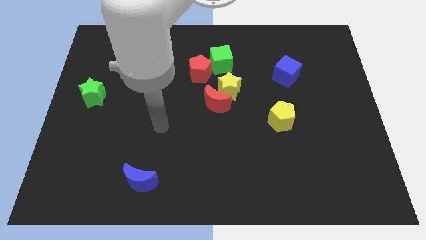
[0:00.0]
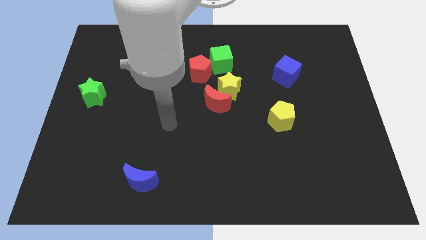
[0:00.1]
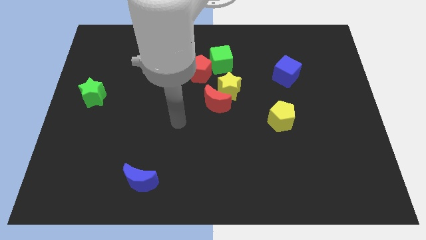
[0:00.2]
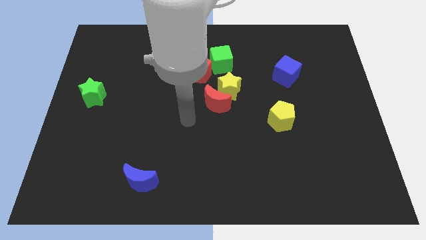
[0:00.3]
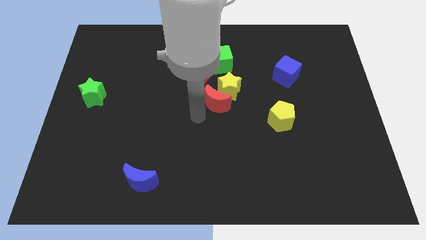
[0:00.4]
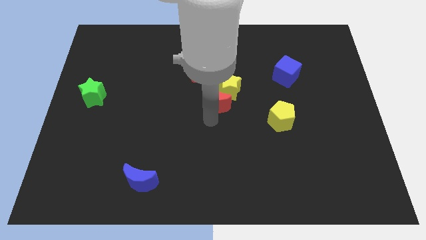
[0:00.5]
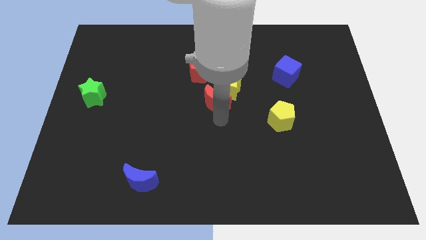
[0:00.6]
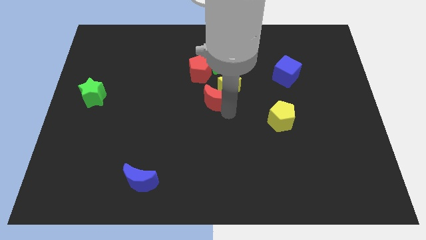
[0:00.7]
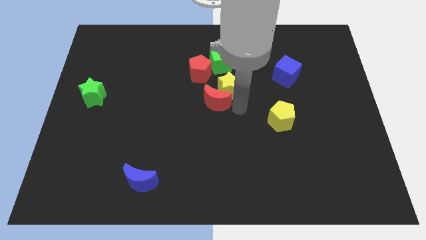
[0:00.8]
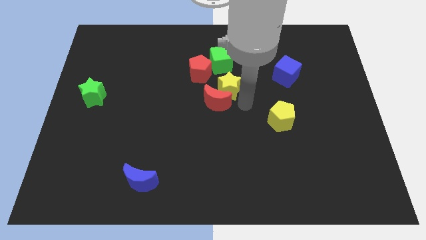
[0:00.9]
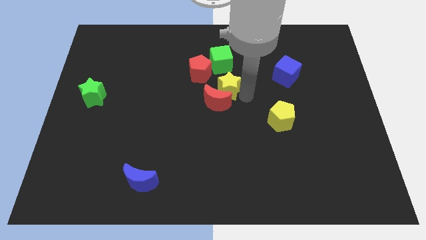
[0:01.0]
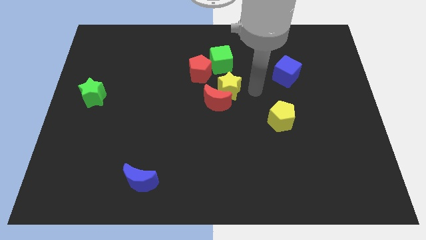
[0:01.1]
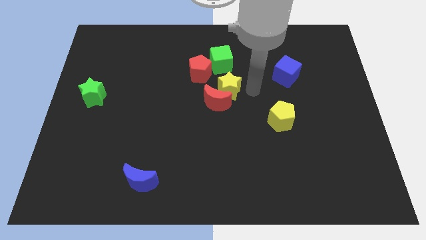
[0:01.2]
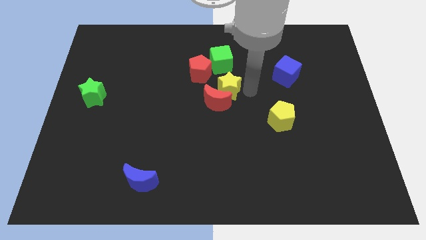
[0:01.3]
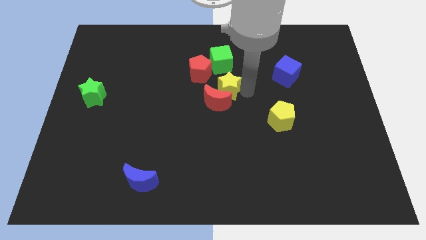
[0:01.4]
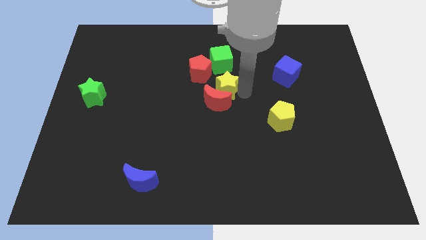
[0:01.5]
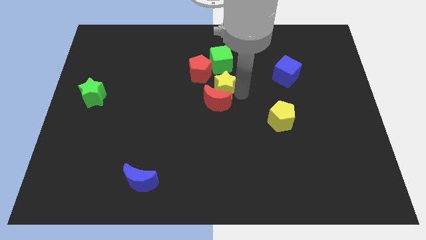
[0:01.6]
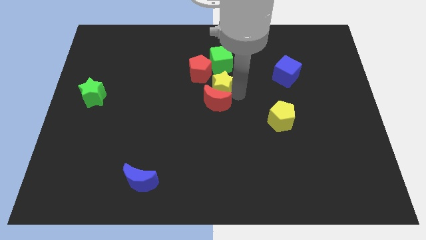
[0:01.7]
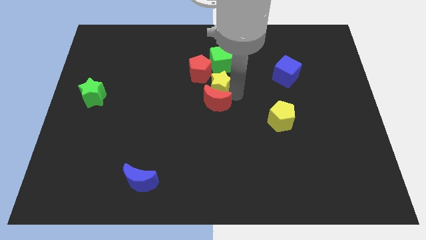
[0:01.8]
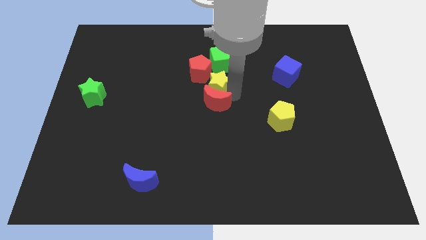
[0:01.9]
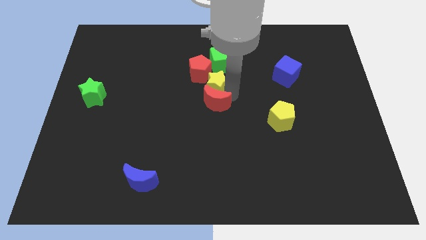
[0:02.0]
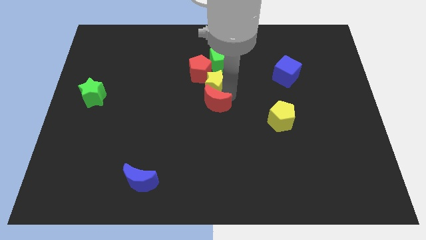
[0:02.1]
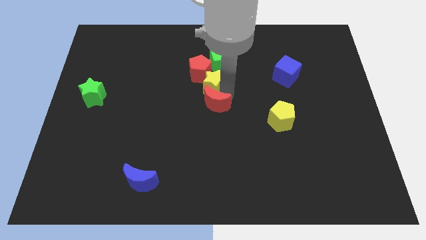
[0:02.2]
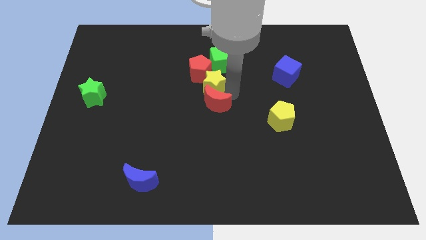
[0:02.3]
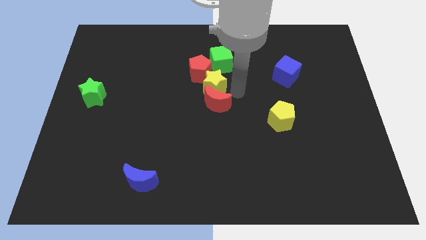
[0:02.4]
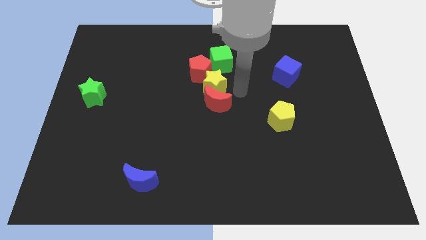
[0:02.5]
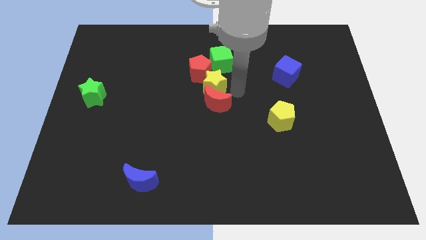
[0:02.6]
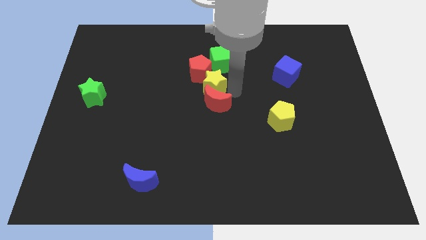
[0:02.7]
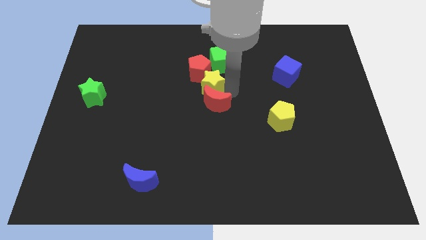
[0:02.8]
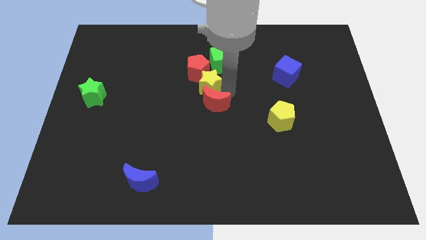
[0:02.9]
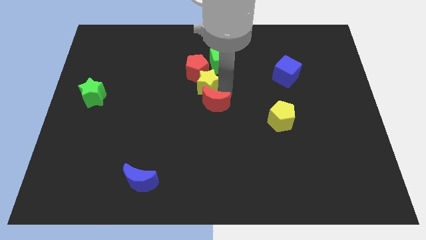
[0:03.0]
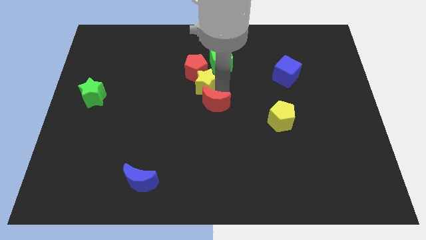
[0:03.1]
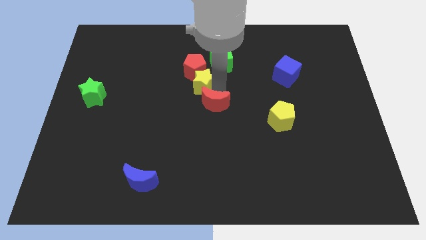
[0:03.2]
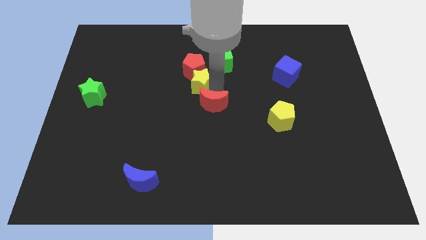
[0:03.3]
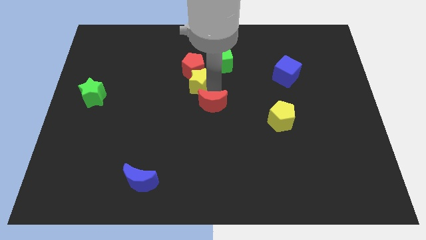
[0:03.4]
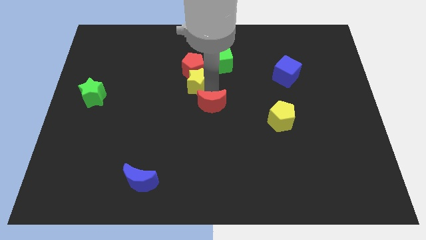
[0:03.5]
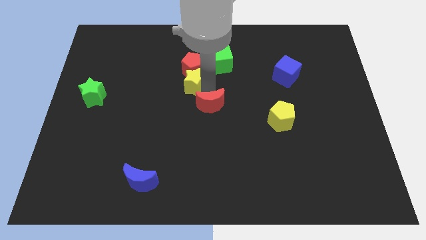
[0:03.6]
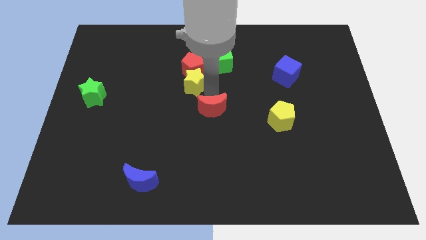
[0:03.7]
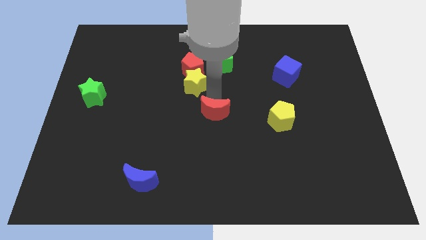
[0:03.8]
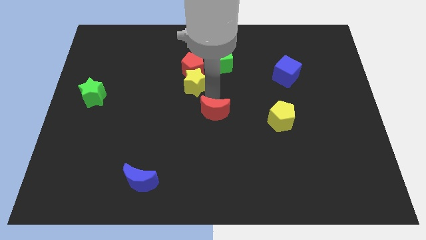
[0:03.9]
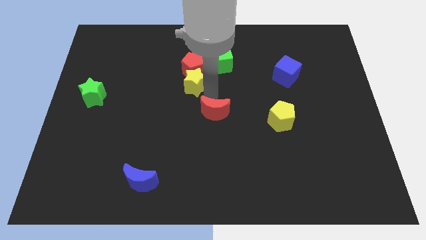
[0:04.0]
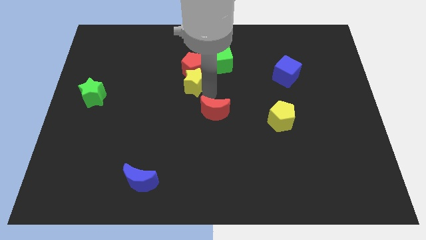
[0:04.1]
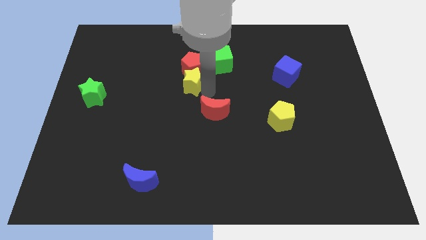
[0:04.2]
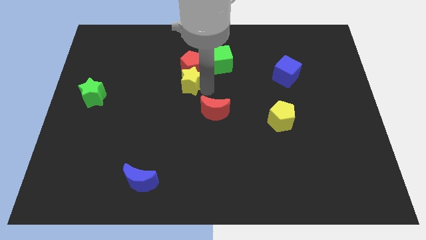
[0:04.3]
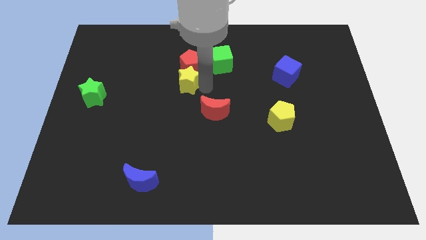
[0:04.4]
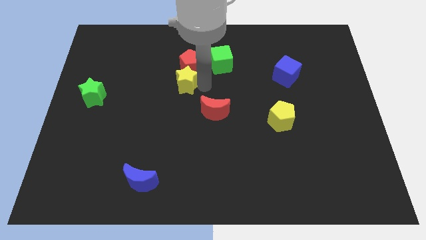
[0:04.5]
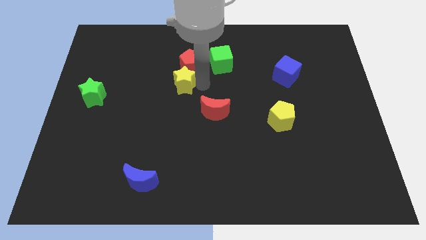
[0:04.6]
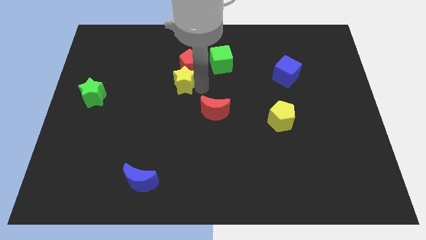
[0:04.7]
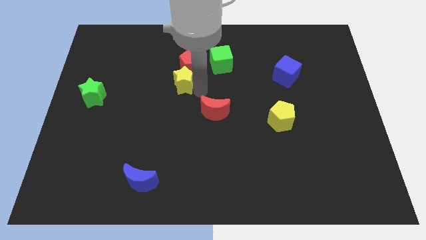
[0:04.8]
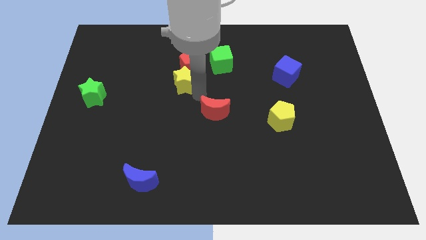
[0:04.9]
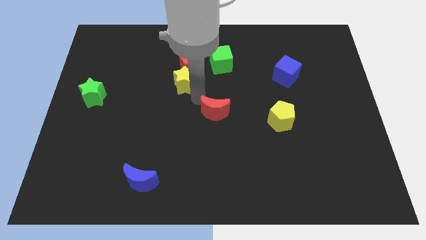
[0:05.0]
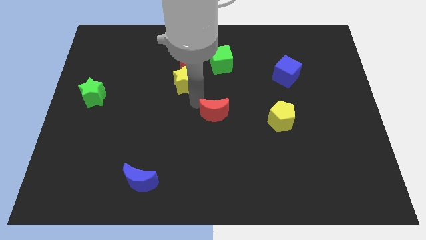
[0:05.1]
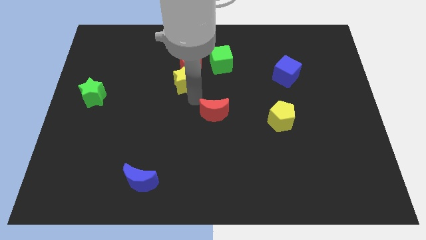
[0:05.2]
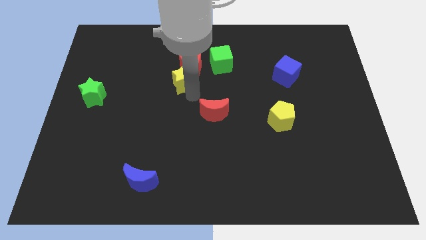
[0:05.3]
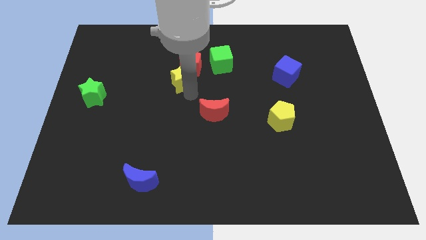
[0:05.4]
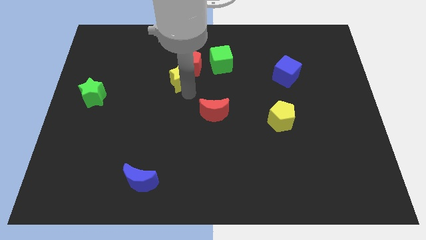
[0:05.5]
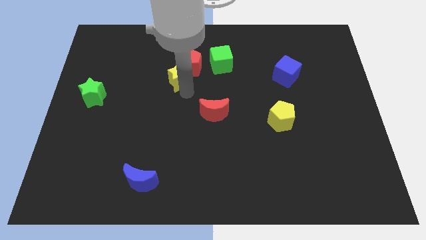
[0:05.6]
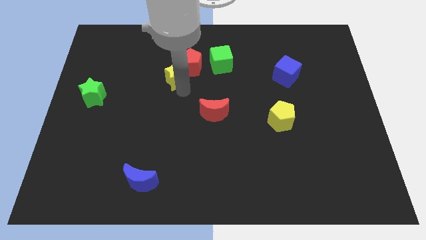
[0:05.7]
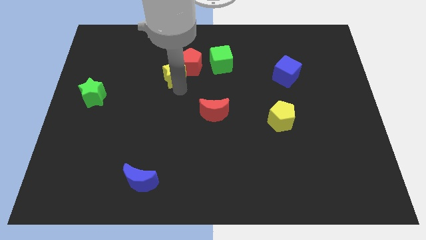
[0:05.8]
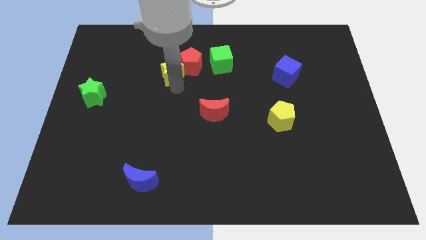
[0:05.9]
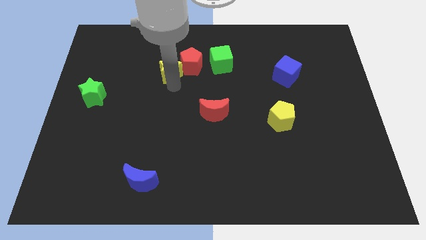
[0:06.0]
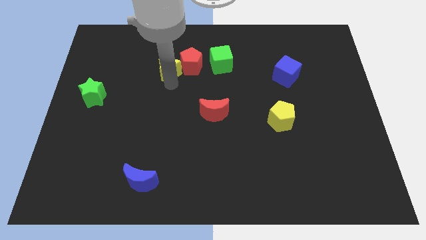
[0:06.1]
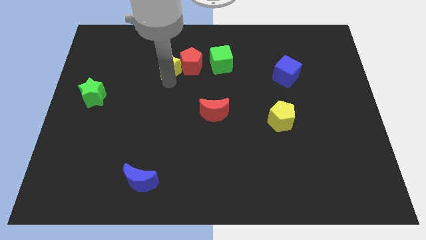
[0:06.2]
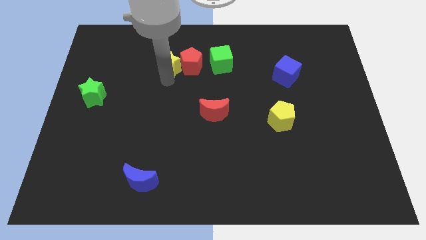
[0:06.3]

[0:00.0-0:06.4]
push the yellow star to the top left side of the red pentagon

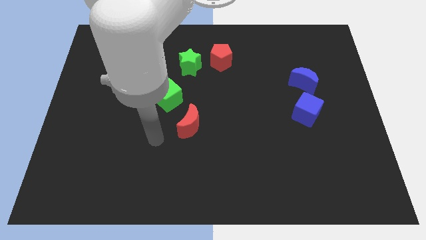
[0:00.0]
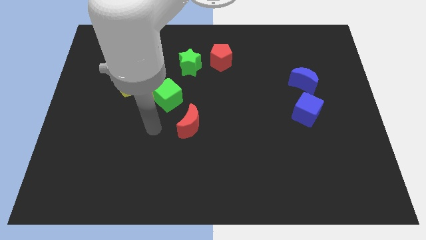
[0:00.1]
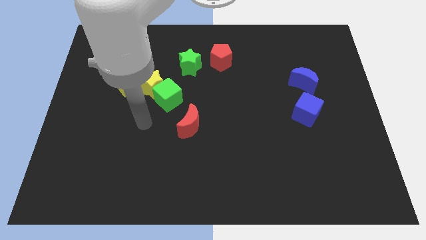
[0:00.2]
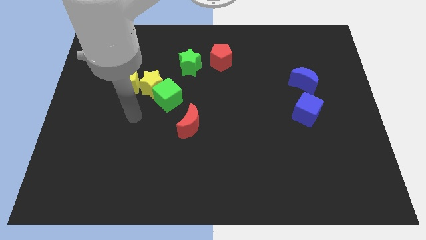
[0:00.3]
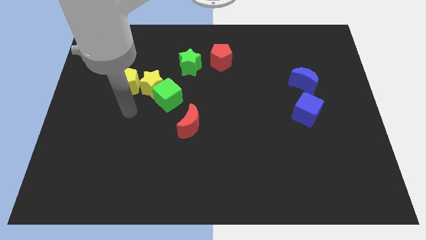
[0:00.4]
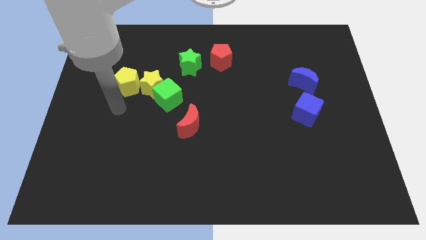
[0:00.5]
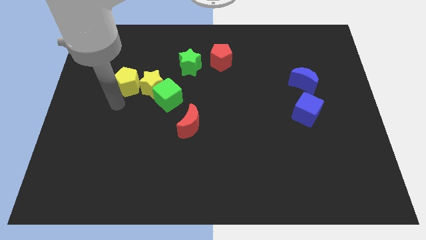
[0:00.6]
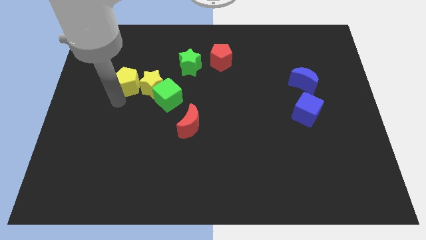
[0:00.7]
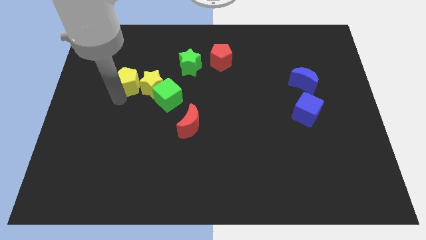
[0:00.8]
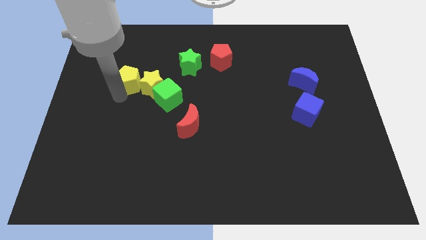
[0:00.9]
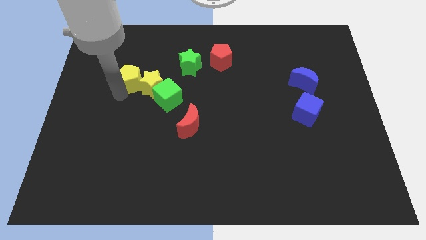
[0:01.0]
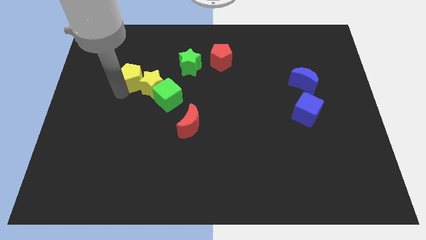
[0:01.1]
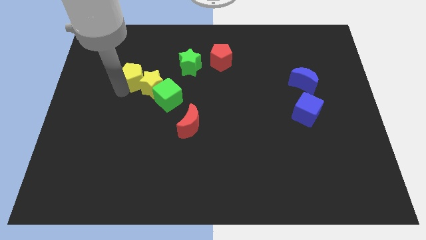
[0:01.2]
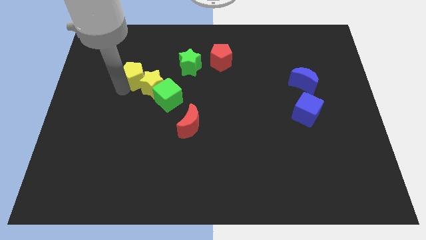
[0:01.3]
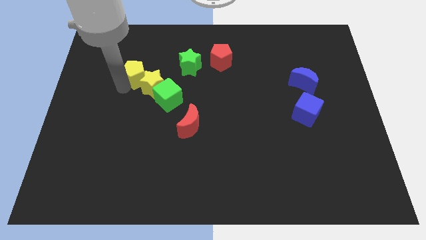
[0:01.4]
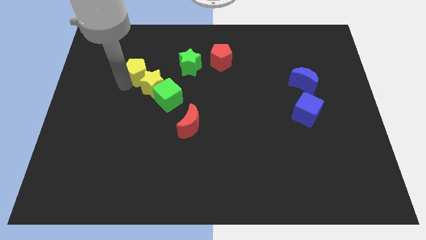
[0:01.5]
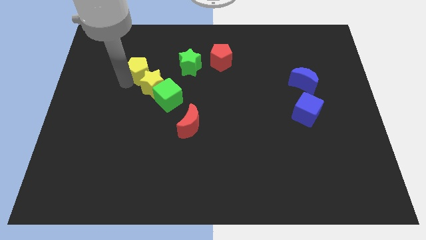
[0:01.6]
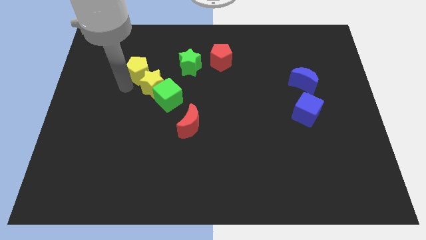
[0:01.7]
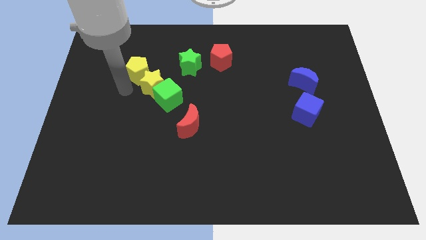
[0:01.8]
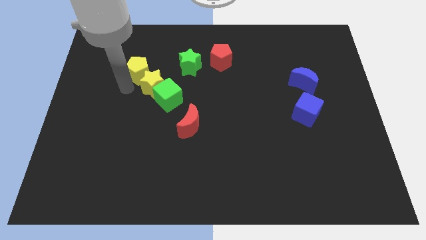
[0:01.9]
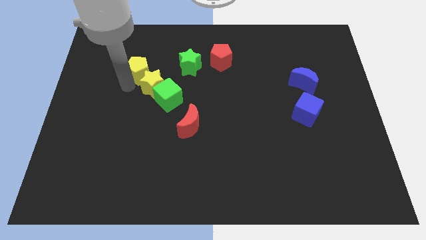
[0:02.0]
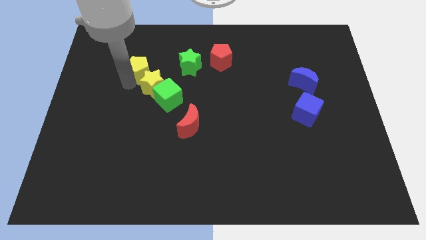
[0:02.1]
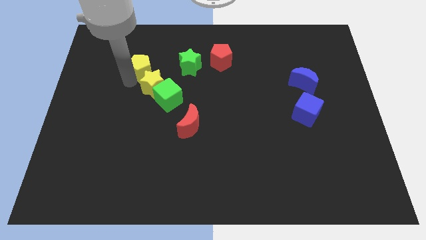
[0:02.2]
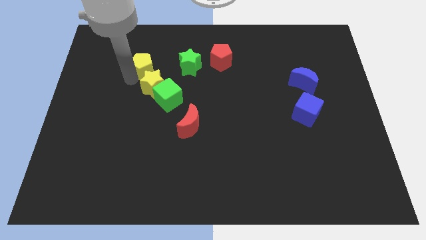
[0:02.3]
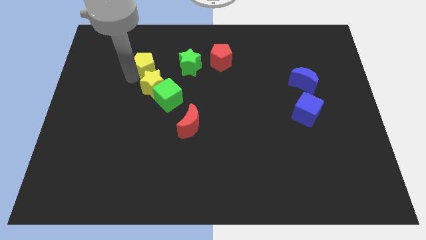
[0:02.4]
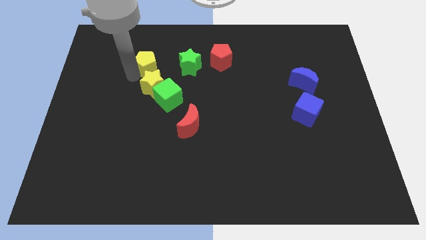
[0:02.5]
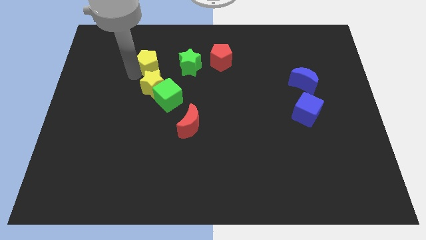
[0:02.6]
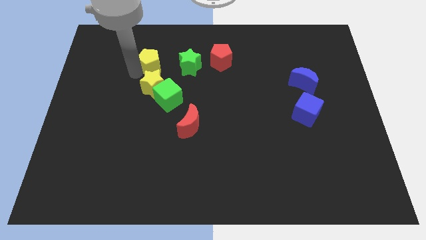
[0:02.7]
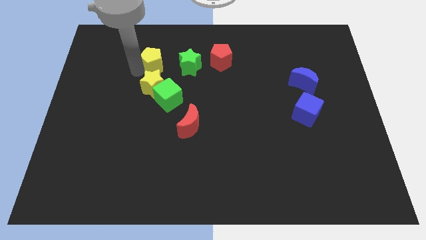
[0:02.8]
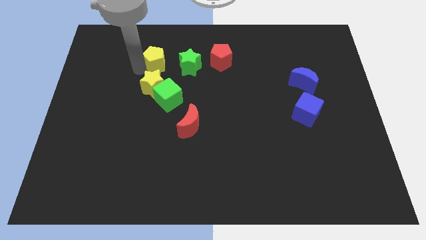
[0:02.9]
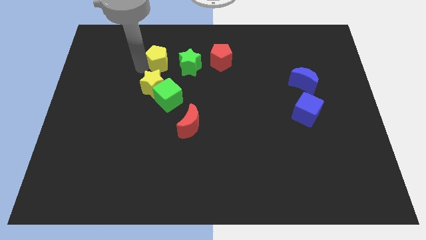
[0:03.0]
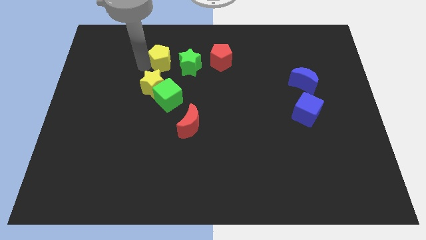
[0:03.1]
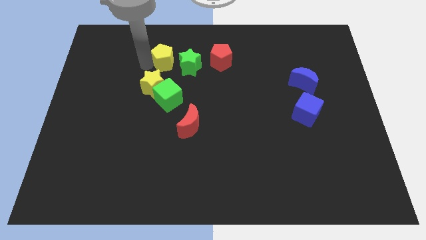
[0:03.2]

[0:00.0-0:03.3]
push the yellow pentagon to the top right side of the yellow star
